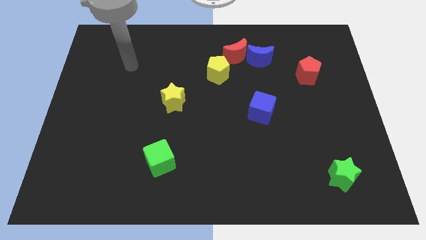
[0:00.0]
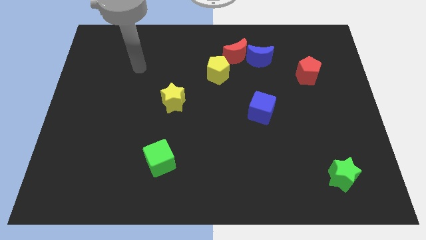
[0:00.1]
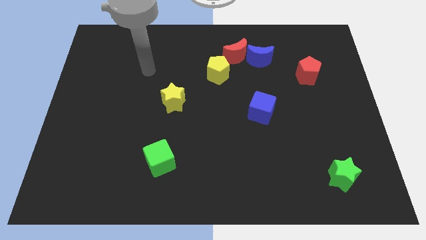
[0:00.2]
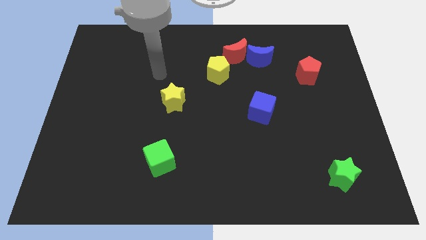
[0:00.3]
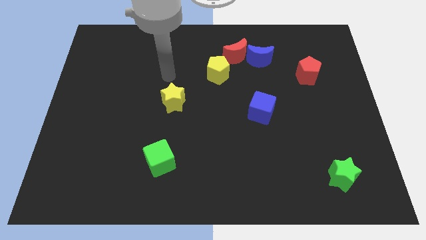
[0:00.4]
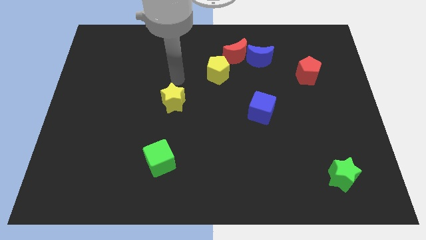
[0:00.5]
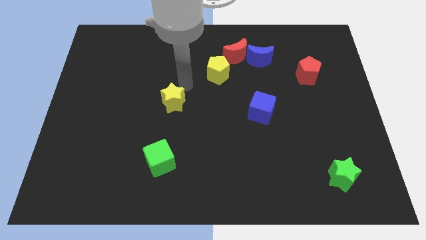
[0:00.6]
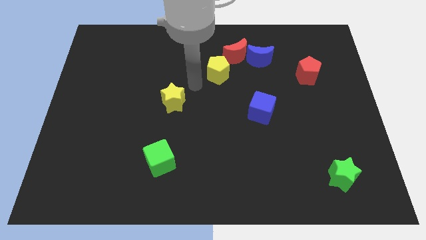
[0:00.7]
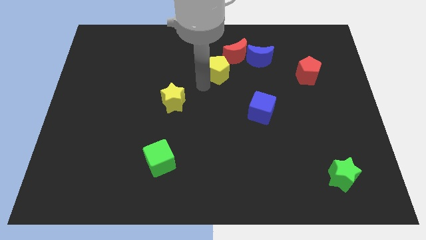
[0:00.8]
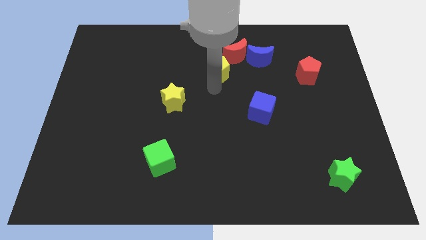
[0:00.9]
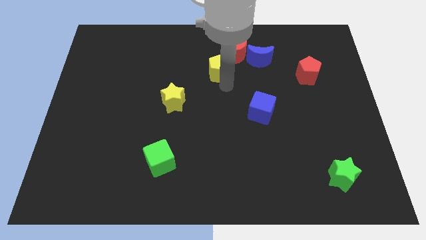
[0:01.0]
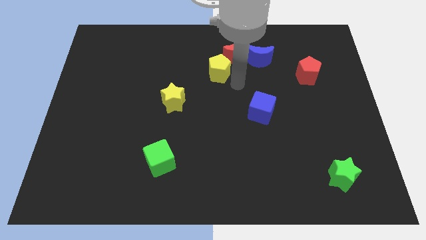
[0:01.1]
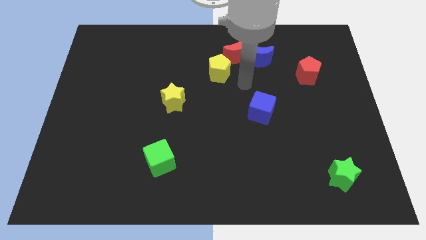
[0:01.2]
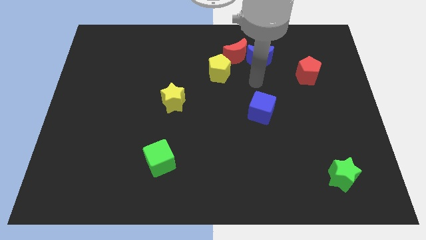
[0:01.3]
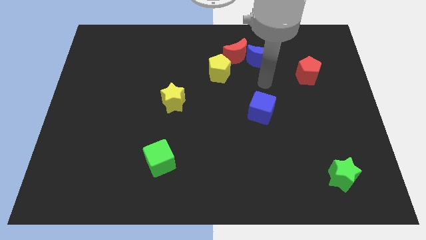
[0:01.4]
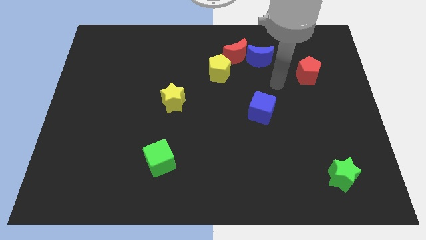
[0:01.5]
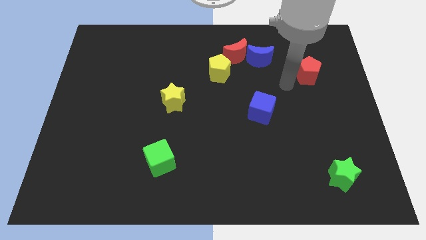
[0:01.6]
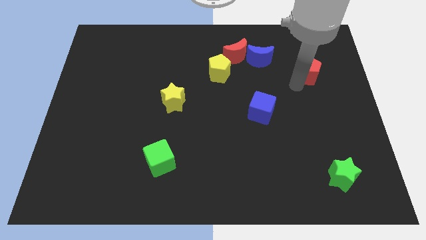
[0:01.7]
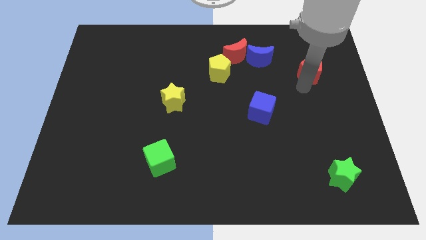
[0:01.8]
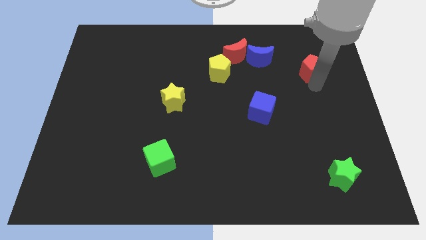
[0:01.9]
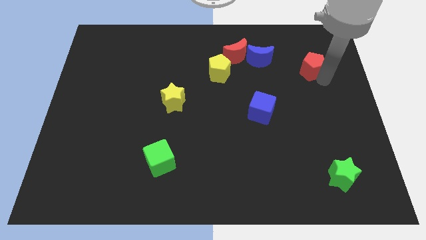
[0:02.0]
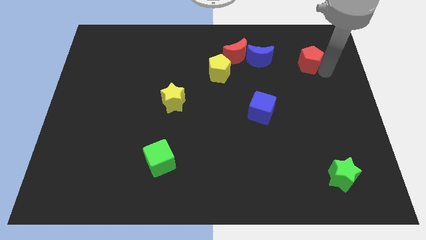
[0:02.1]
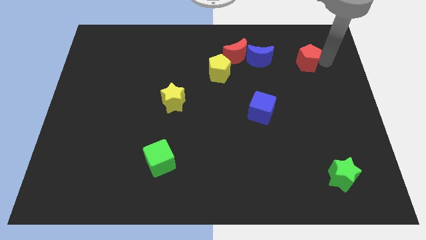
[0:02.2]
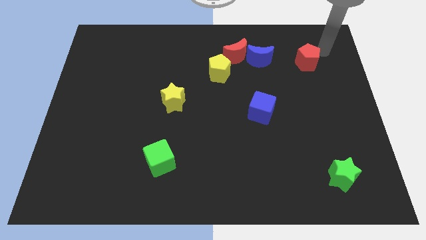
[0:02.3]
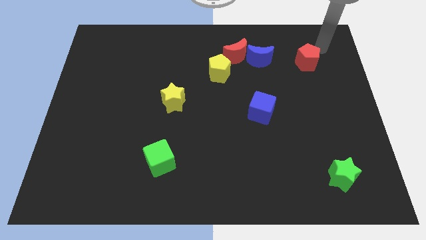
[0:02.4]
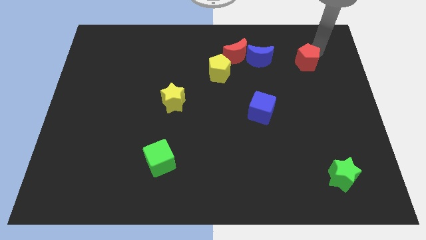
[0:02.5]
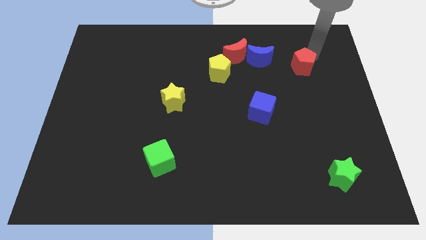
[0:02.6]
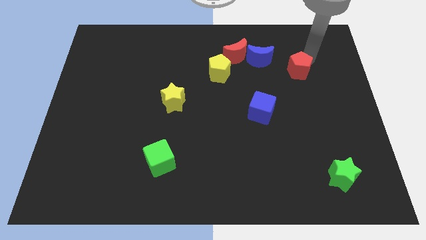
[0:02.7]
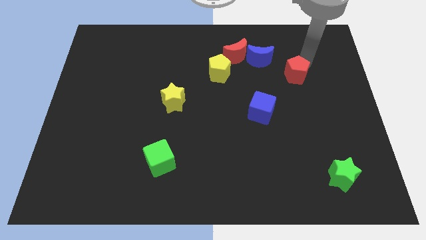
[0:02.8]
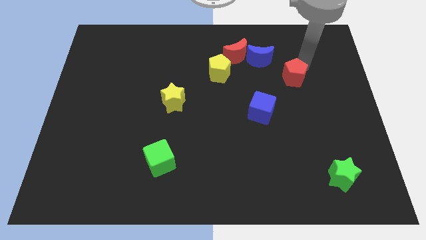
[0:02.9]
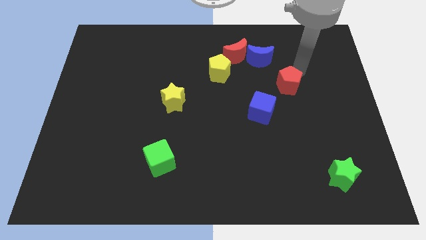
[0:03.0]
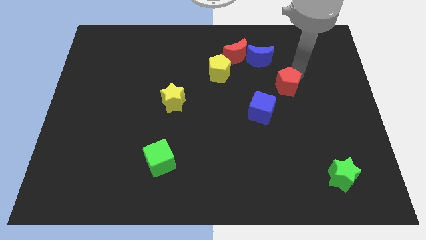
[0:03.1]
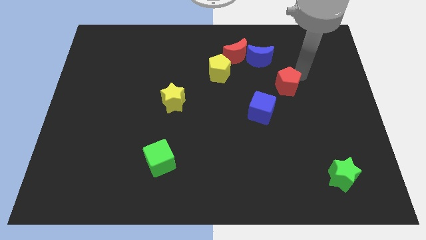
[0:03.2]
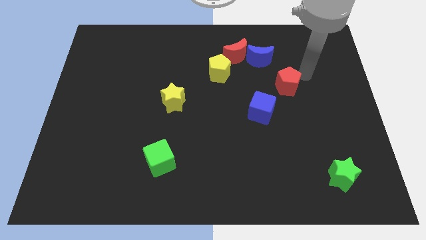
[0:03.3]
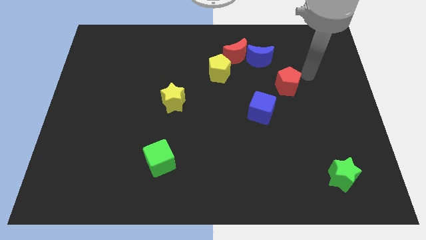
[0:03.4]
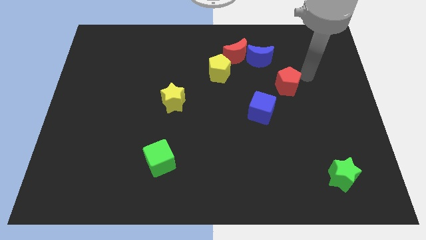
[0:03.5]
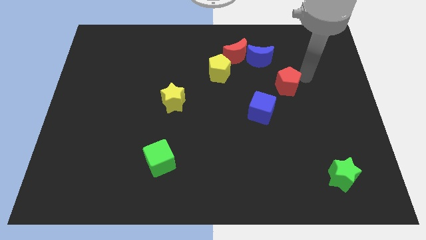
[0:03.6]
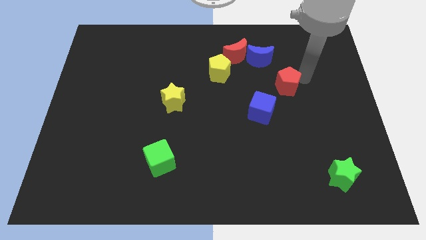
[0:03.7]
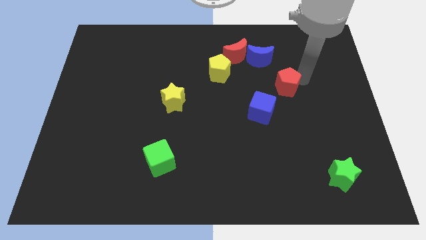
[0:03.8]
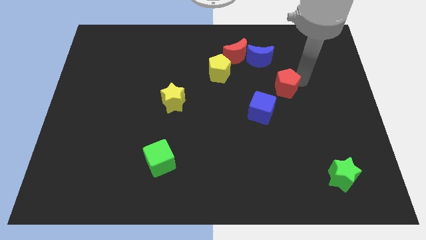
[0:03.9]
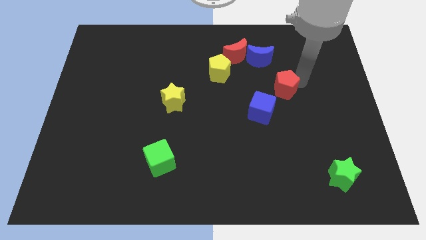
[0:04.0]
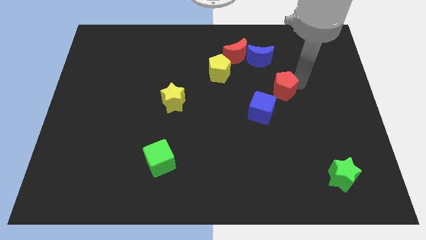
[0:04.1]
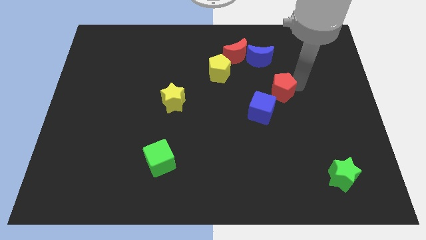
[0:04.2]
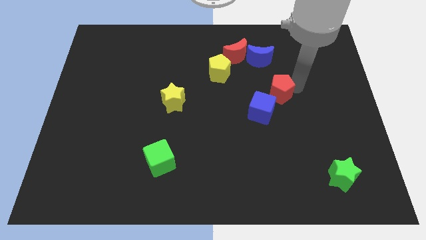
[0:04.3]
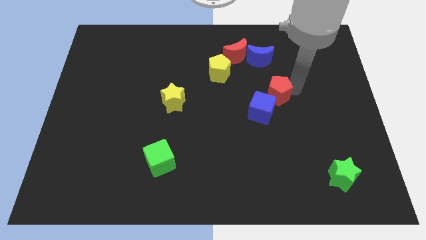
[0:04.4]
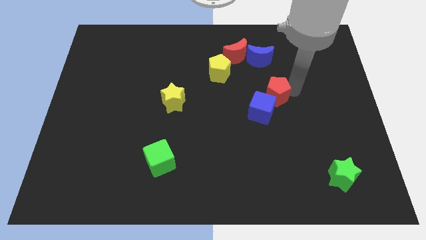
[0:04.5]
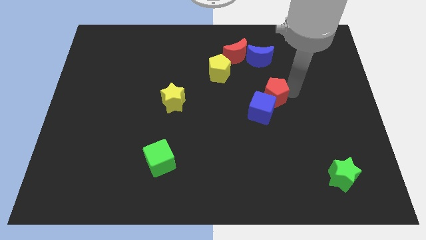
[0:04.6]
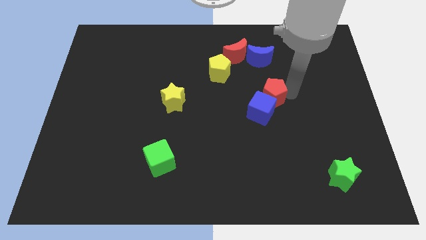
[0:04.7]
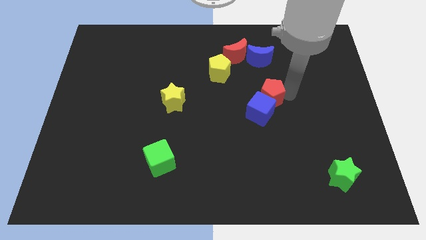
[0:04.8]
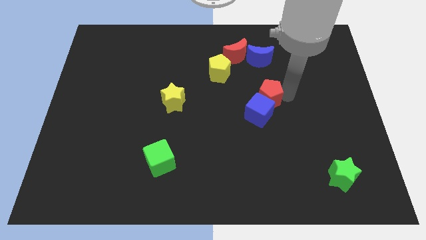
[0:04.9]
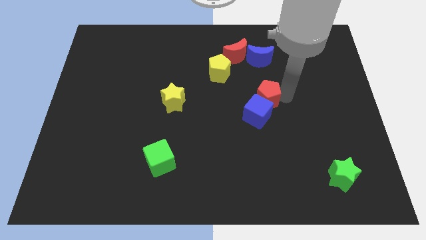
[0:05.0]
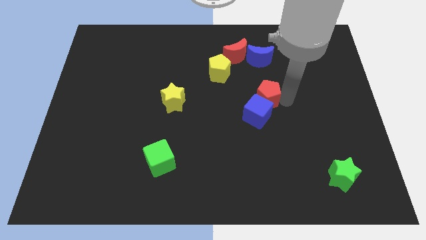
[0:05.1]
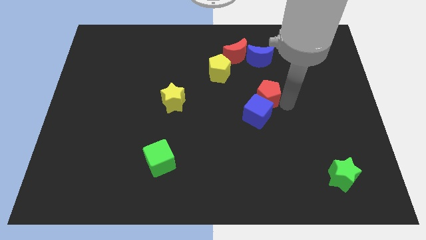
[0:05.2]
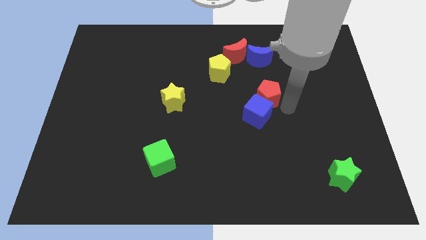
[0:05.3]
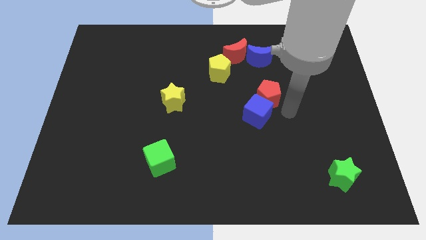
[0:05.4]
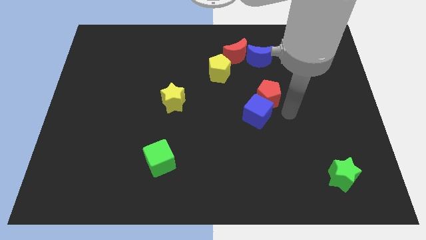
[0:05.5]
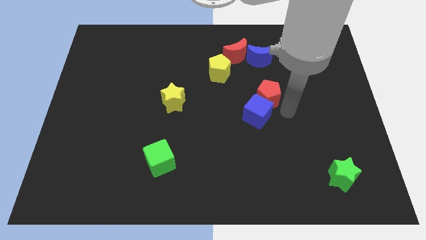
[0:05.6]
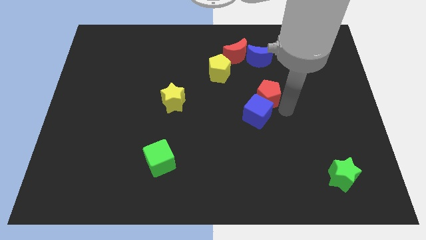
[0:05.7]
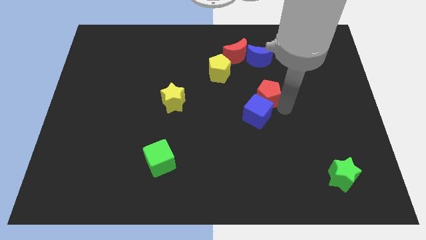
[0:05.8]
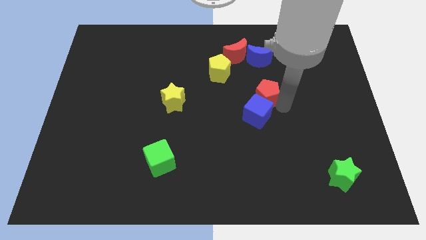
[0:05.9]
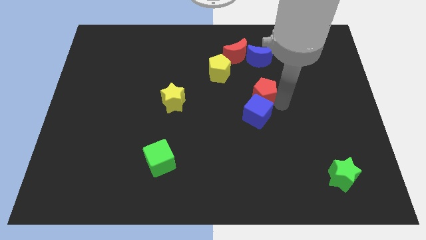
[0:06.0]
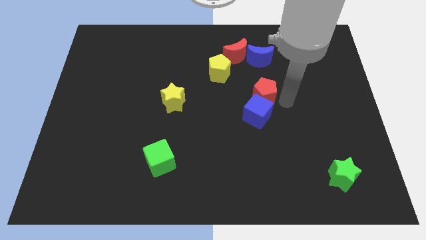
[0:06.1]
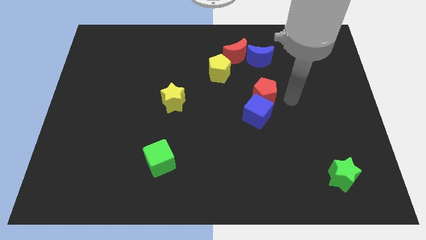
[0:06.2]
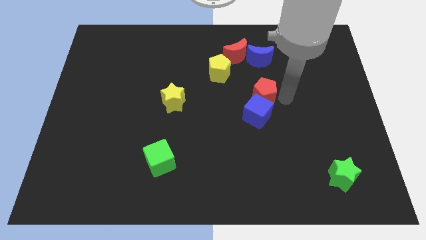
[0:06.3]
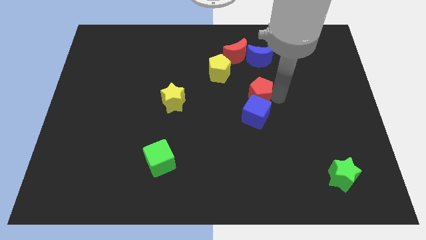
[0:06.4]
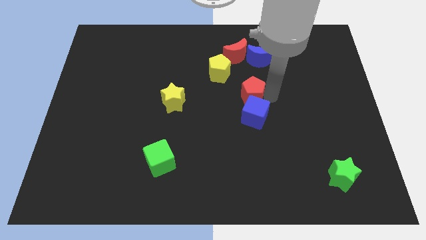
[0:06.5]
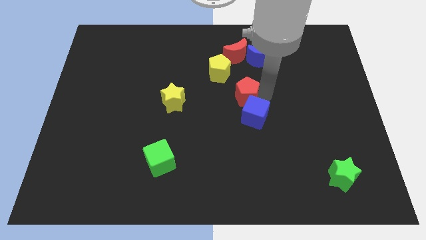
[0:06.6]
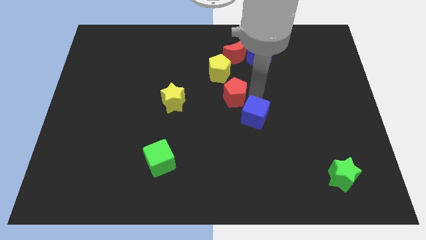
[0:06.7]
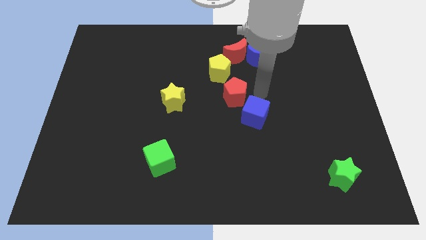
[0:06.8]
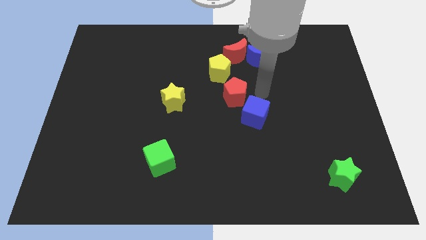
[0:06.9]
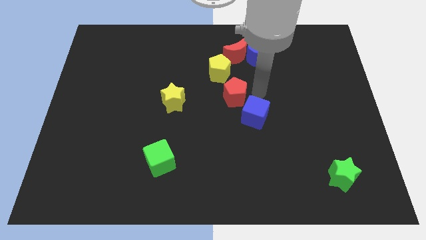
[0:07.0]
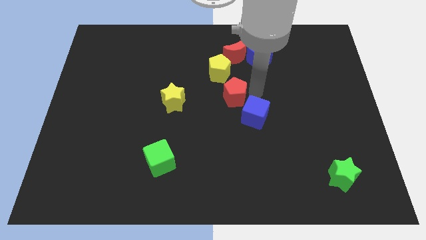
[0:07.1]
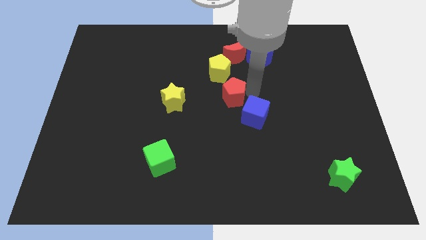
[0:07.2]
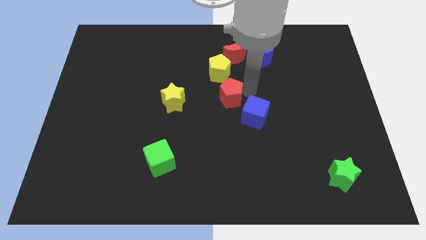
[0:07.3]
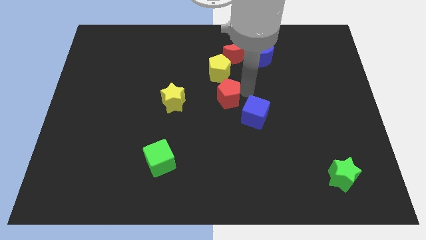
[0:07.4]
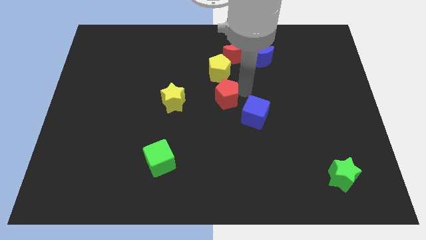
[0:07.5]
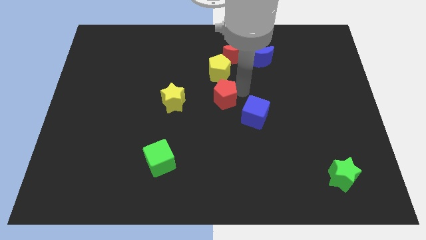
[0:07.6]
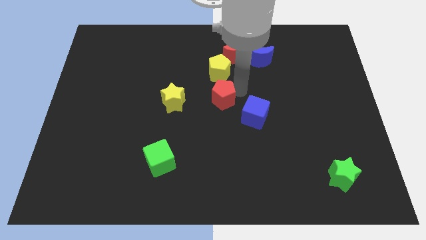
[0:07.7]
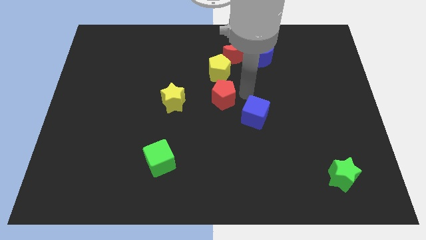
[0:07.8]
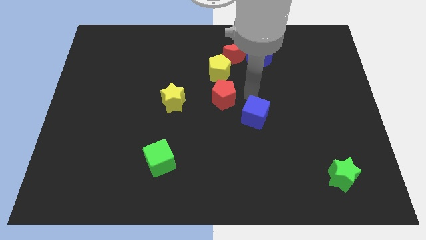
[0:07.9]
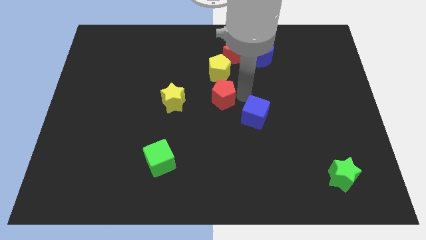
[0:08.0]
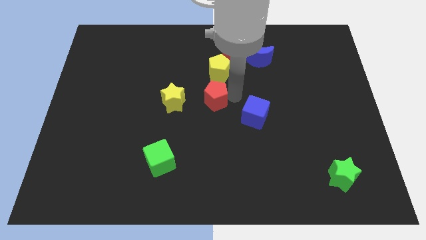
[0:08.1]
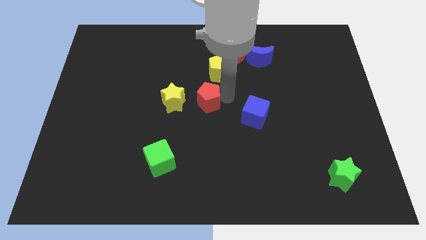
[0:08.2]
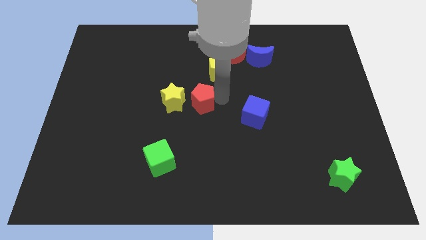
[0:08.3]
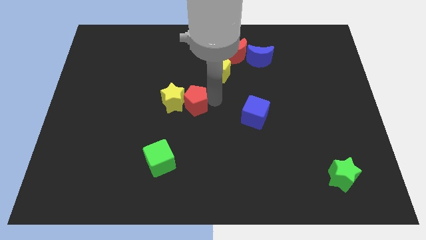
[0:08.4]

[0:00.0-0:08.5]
put the red pentagon next to the yellow star
